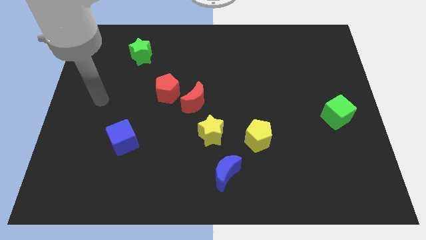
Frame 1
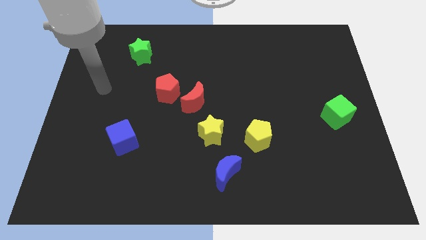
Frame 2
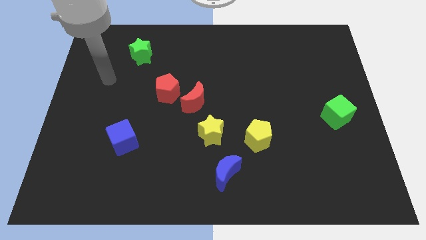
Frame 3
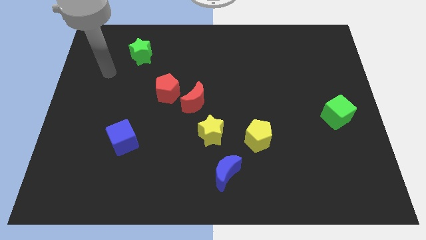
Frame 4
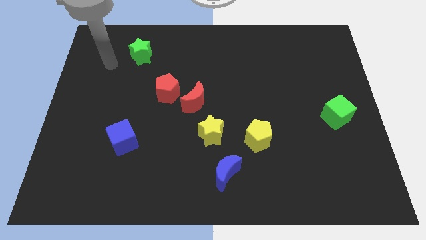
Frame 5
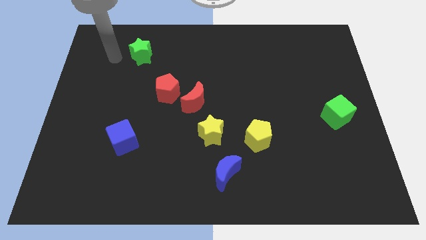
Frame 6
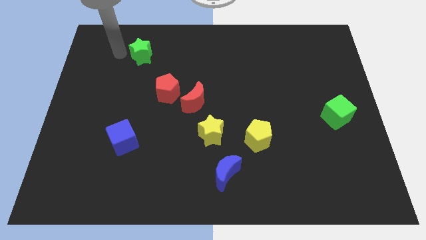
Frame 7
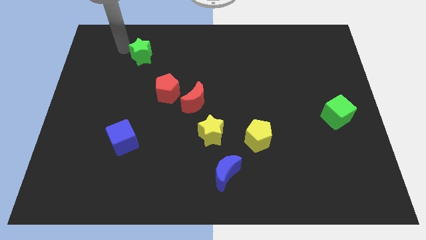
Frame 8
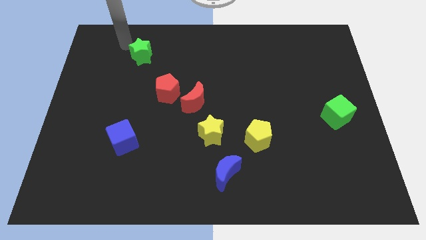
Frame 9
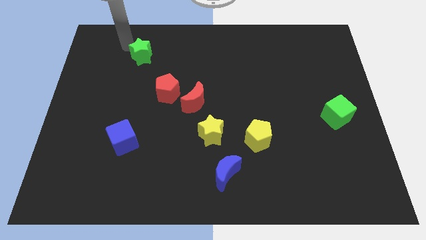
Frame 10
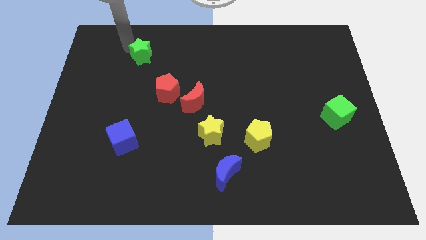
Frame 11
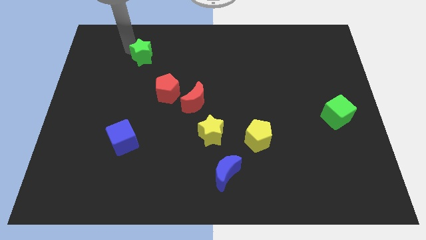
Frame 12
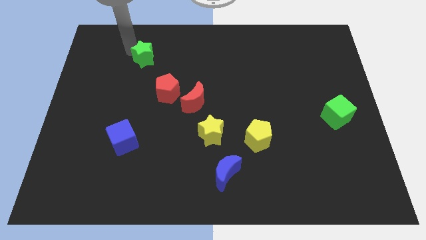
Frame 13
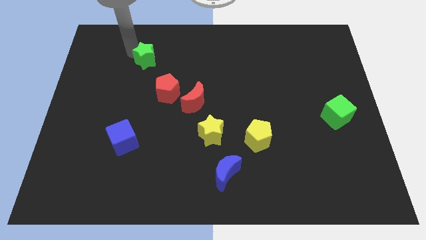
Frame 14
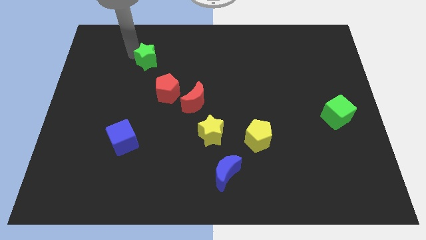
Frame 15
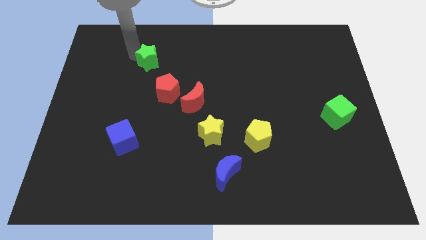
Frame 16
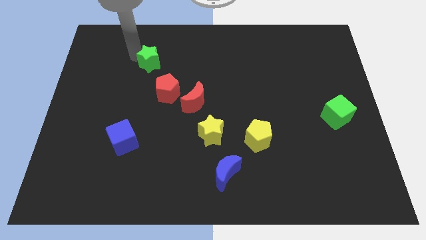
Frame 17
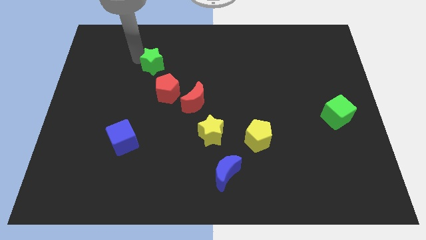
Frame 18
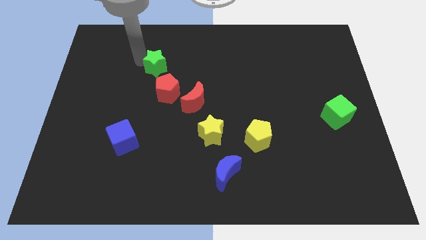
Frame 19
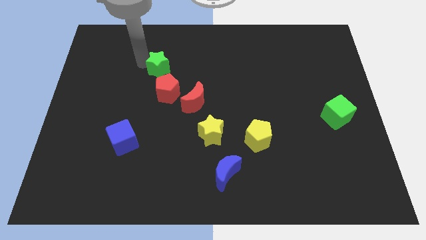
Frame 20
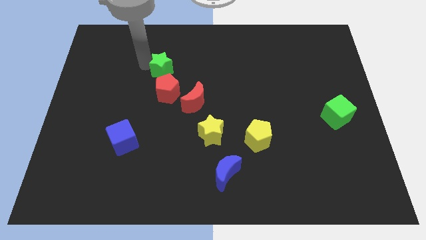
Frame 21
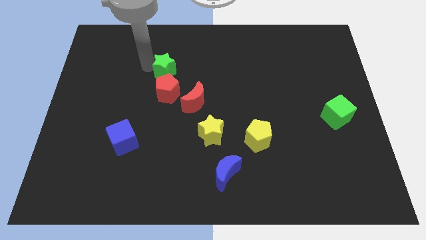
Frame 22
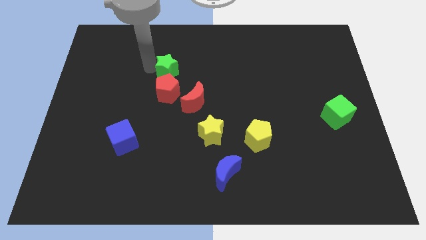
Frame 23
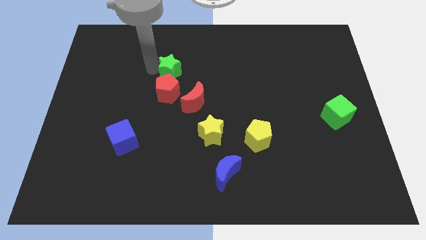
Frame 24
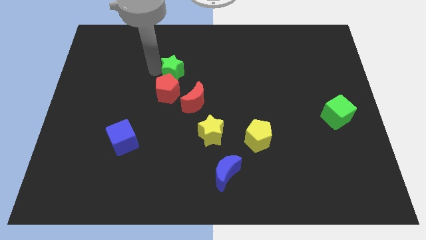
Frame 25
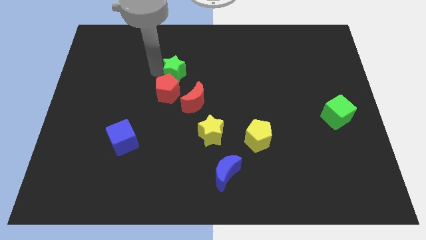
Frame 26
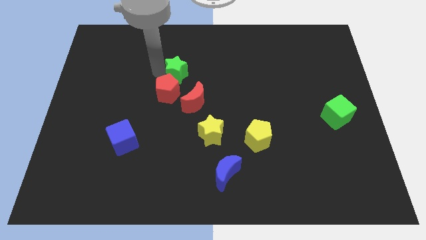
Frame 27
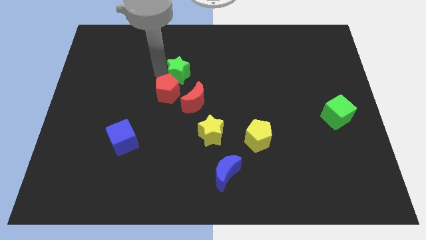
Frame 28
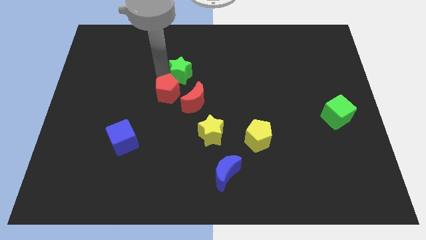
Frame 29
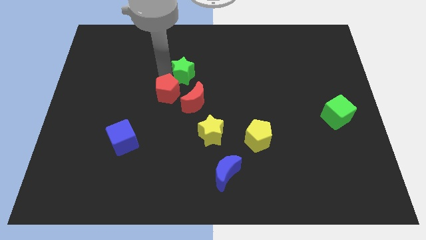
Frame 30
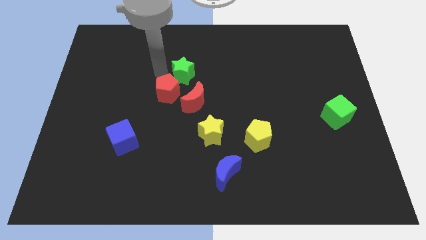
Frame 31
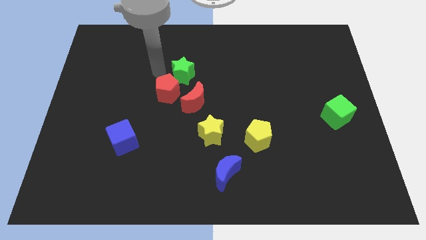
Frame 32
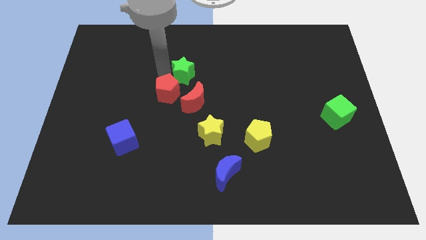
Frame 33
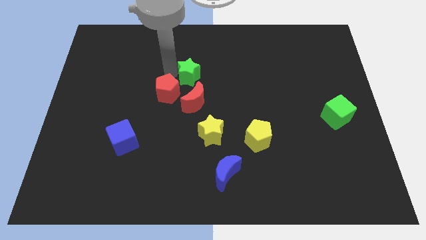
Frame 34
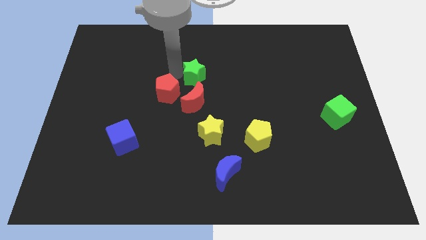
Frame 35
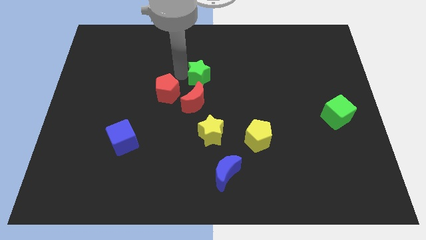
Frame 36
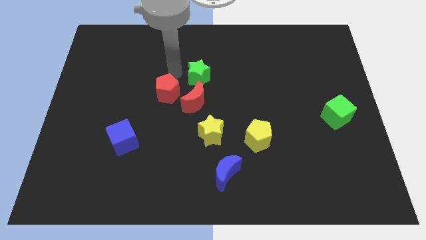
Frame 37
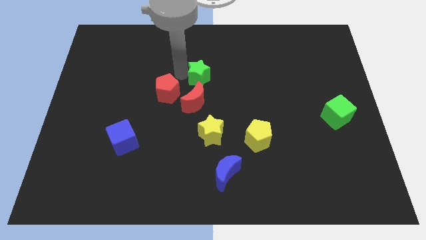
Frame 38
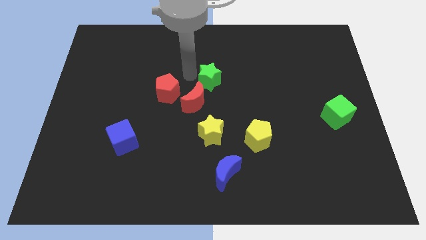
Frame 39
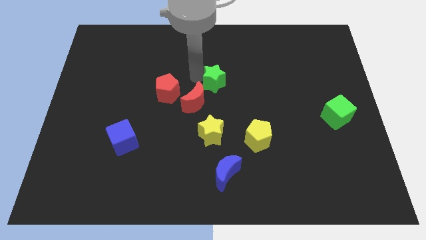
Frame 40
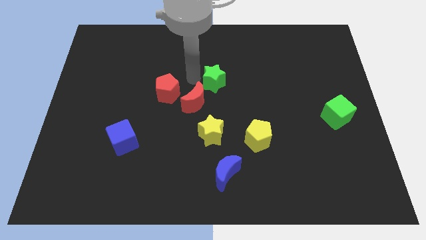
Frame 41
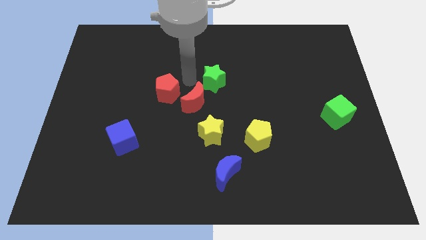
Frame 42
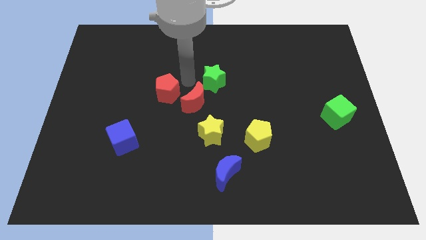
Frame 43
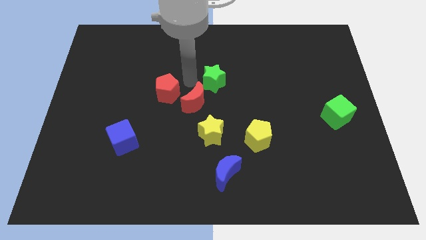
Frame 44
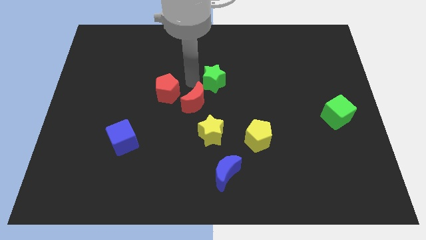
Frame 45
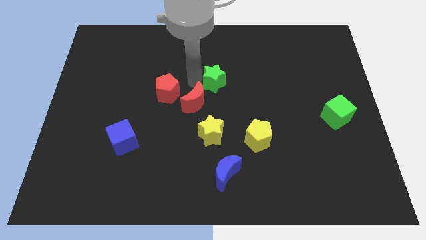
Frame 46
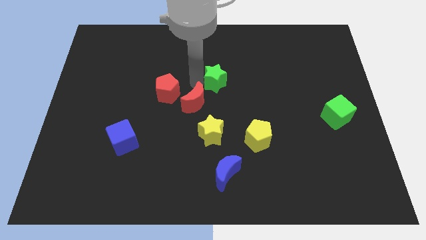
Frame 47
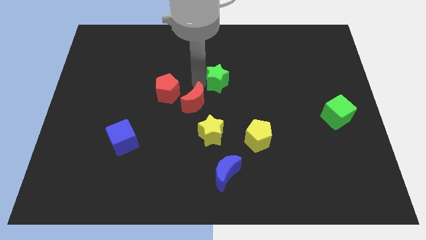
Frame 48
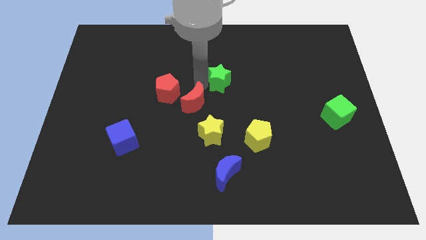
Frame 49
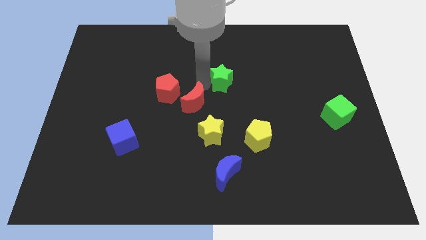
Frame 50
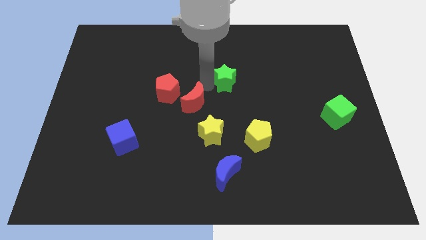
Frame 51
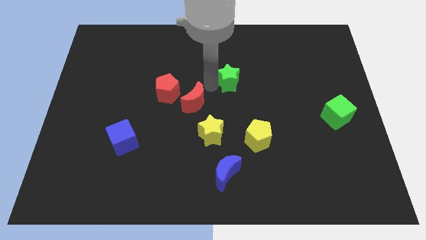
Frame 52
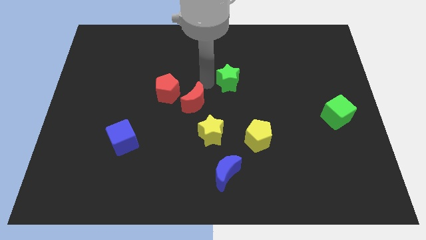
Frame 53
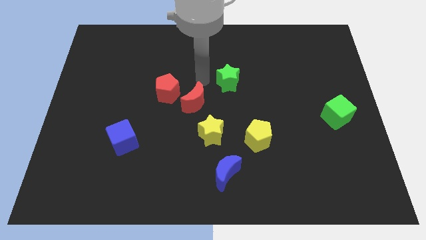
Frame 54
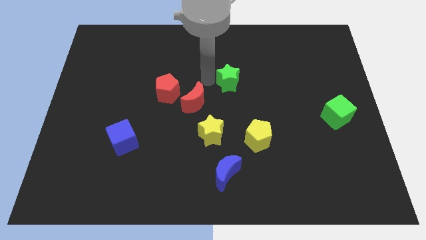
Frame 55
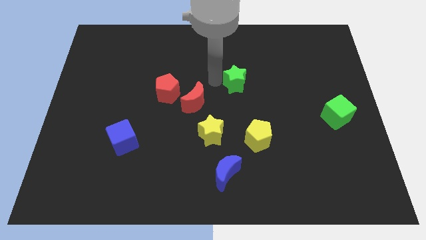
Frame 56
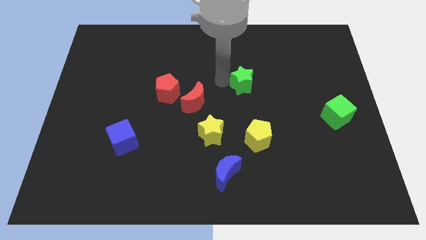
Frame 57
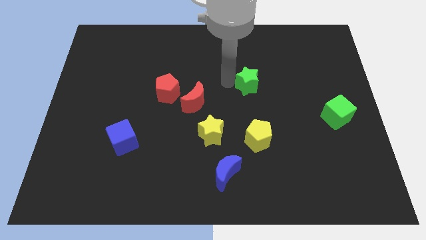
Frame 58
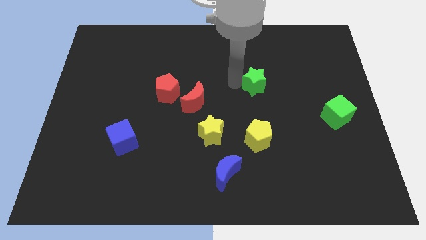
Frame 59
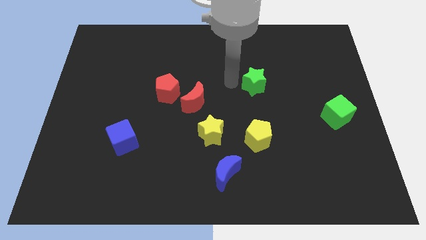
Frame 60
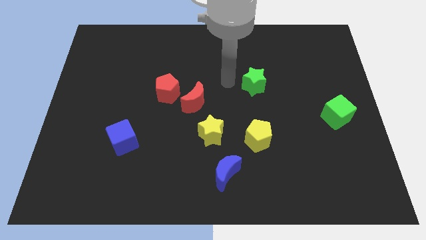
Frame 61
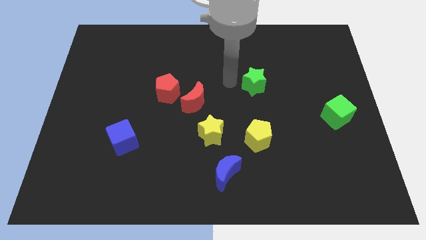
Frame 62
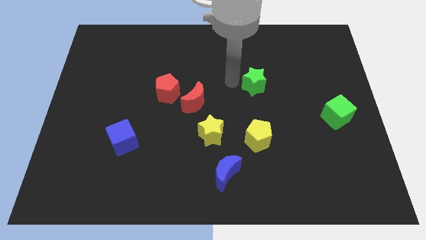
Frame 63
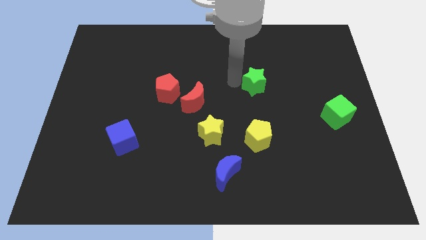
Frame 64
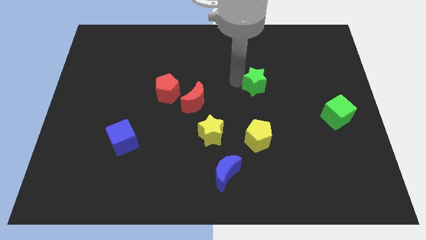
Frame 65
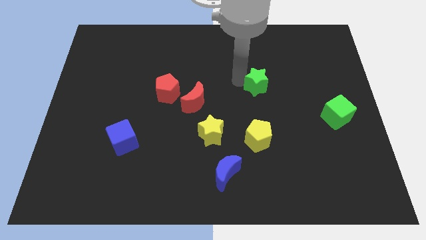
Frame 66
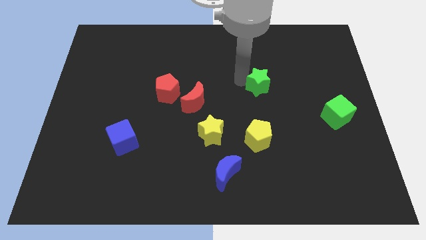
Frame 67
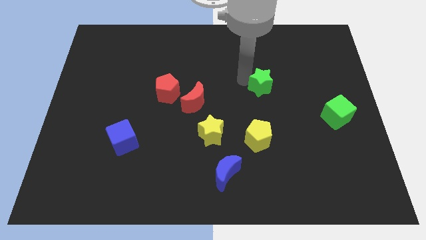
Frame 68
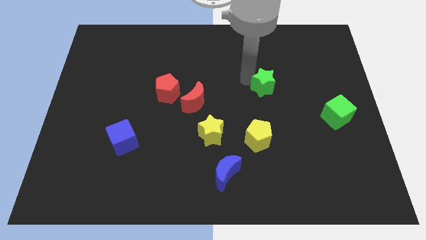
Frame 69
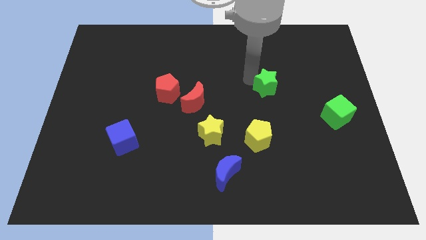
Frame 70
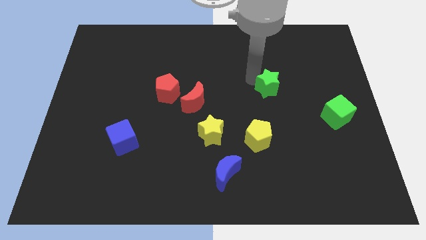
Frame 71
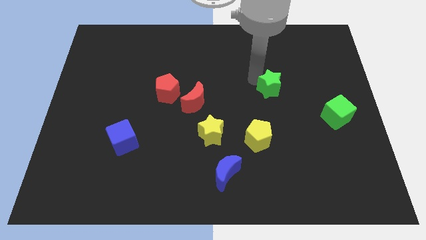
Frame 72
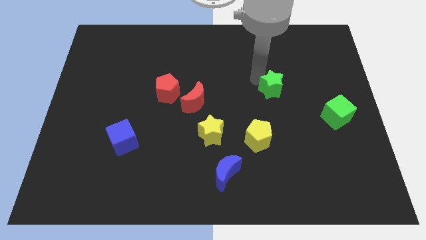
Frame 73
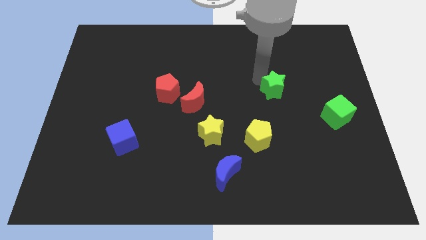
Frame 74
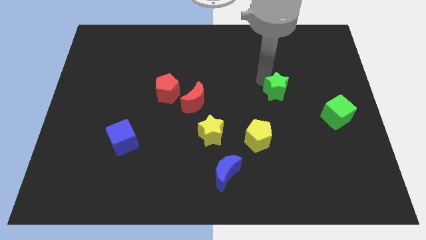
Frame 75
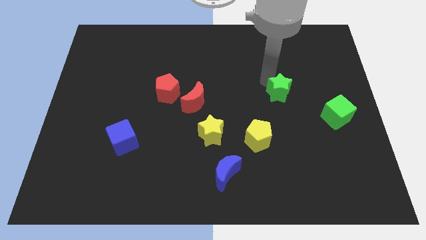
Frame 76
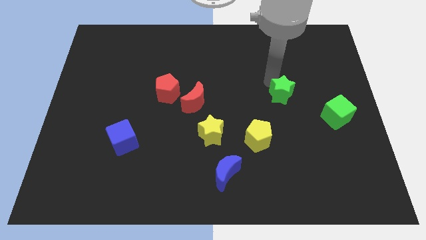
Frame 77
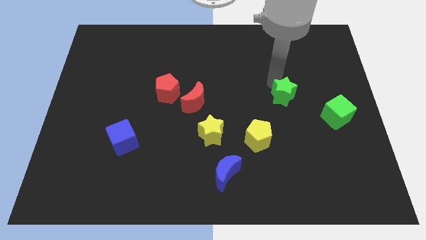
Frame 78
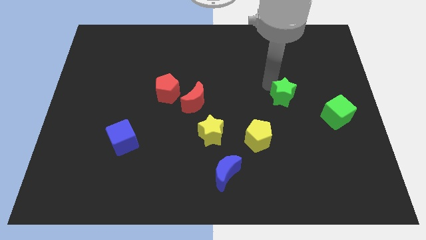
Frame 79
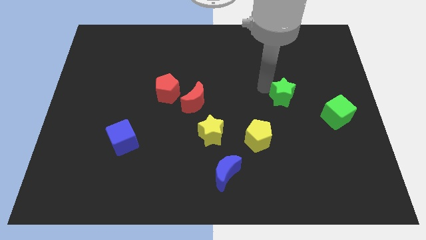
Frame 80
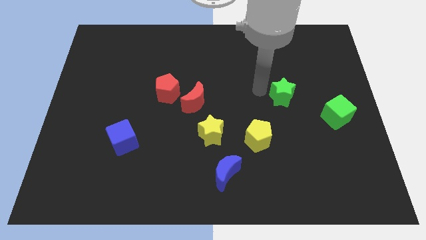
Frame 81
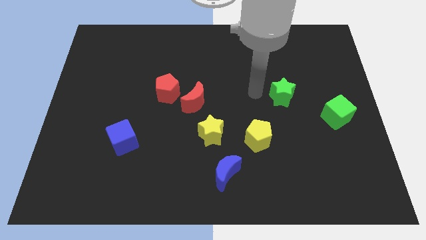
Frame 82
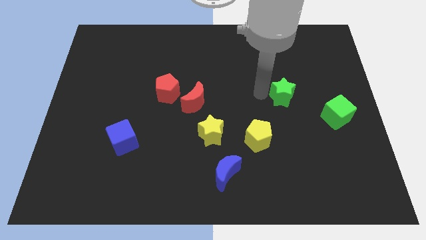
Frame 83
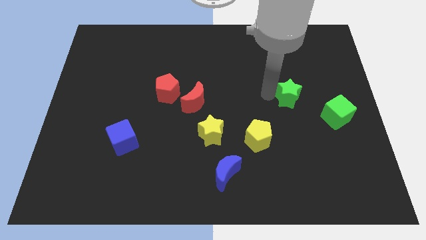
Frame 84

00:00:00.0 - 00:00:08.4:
push the green star diagonally up and to the left of the green cube
